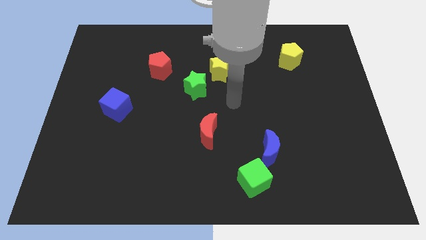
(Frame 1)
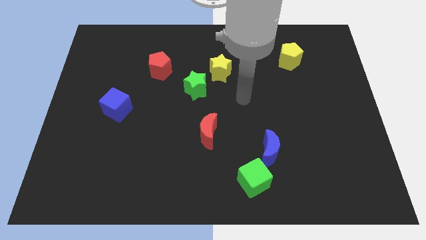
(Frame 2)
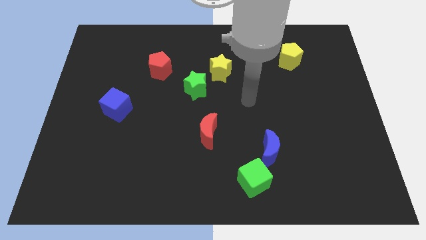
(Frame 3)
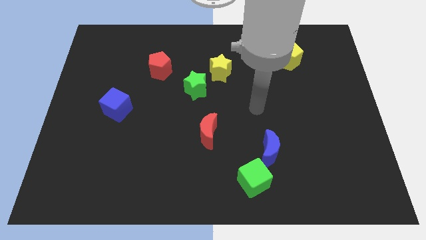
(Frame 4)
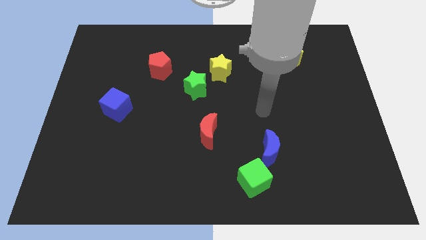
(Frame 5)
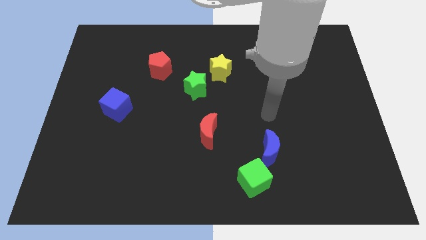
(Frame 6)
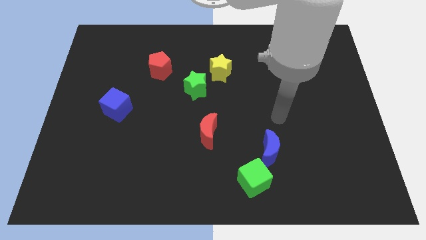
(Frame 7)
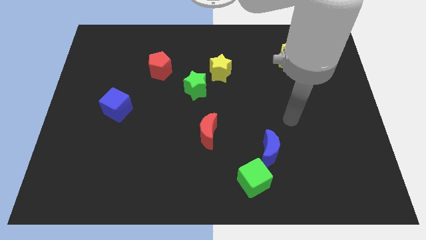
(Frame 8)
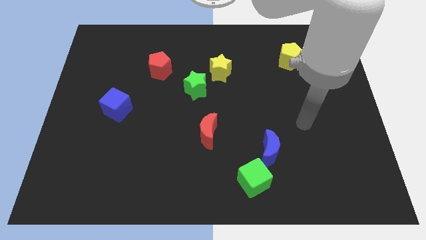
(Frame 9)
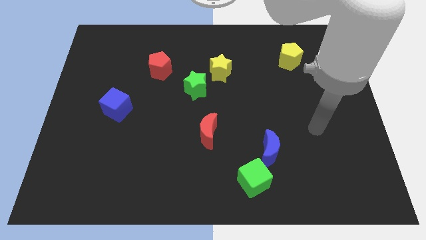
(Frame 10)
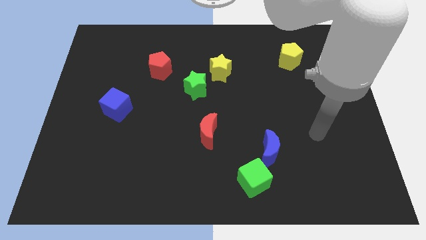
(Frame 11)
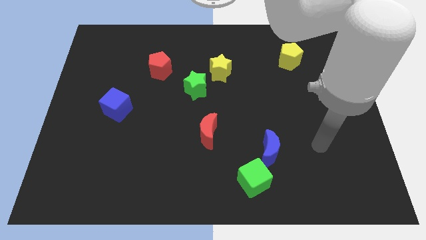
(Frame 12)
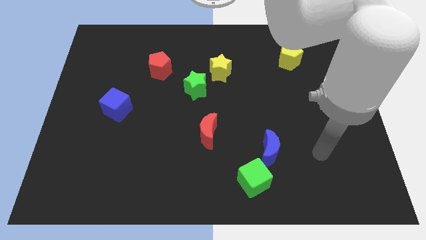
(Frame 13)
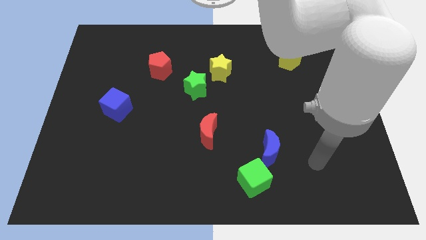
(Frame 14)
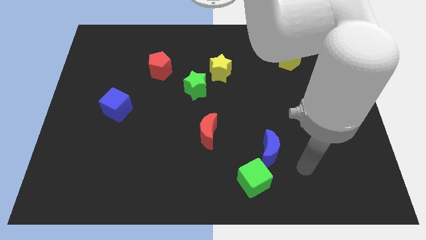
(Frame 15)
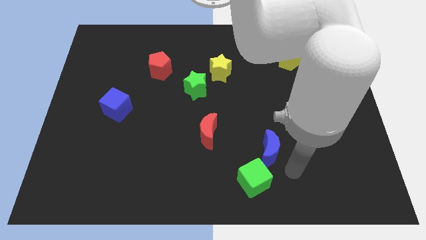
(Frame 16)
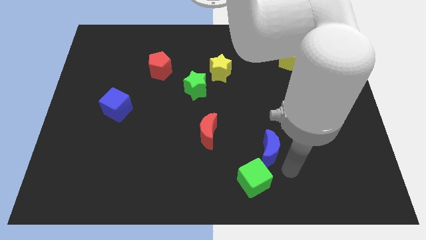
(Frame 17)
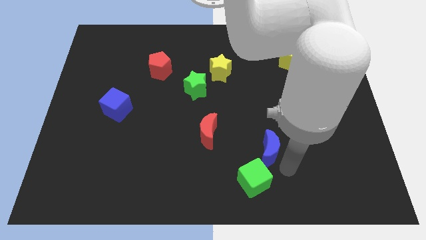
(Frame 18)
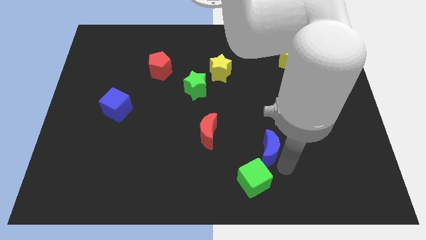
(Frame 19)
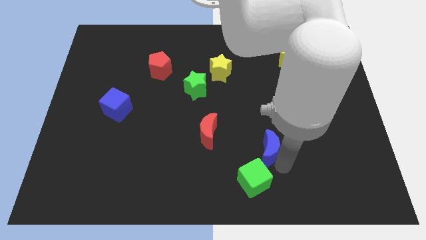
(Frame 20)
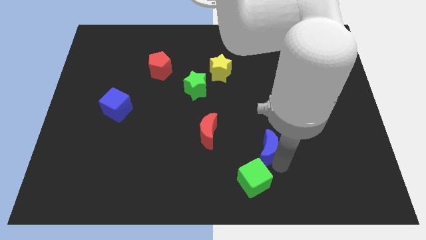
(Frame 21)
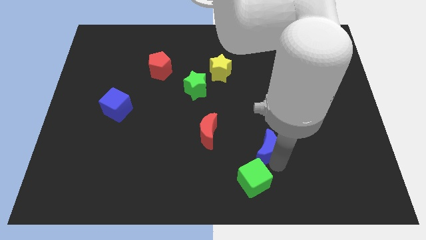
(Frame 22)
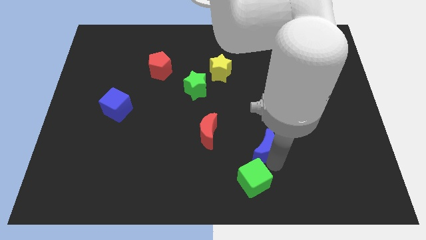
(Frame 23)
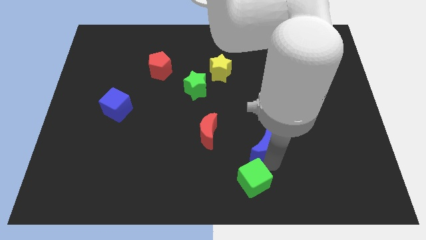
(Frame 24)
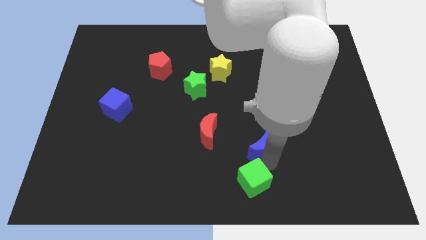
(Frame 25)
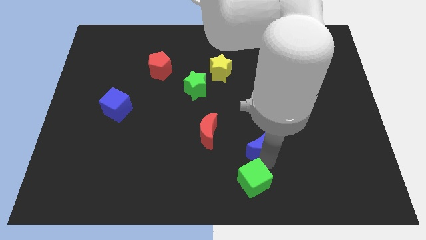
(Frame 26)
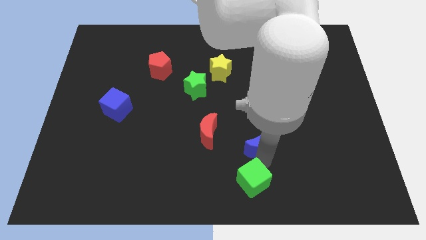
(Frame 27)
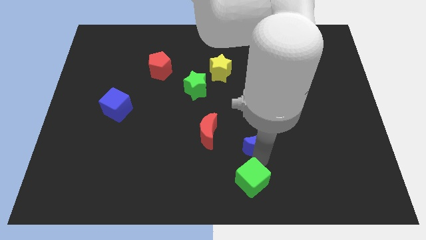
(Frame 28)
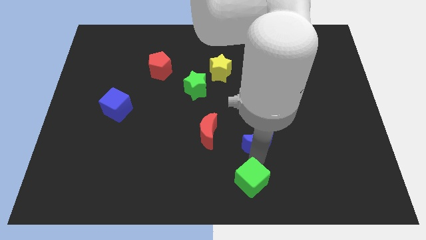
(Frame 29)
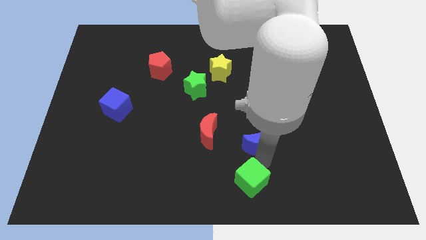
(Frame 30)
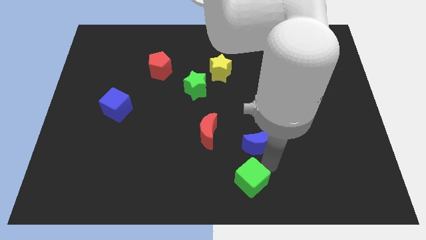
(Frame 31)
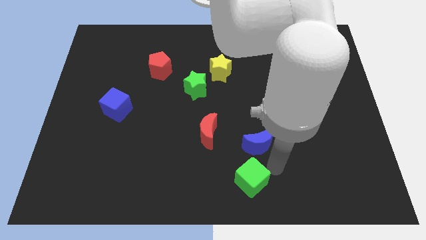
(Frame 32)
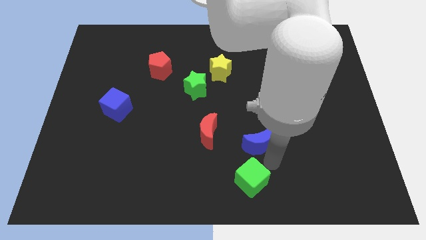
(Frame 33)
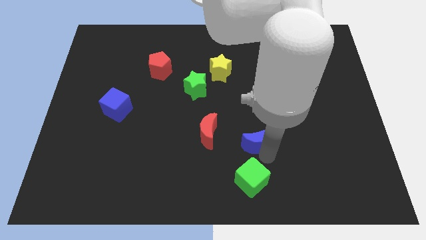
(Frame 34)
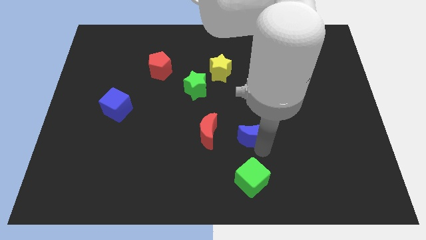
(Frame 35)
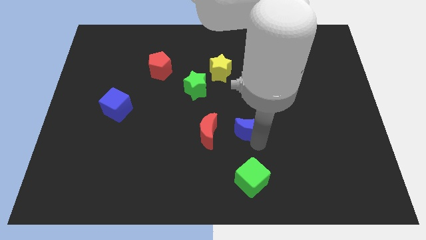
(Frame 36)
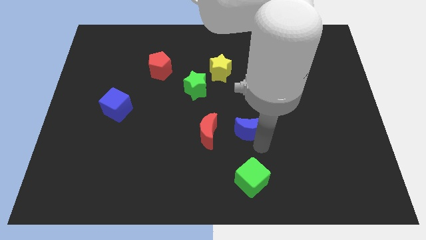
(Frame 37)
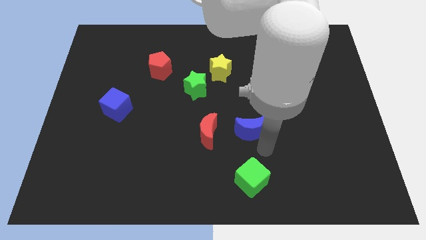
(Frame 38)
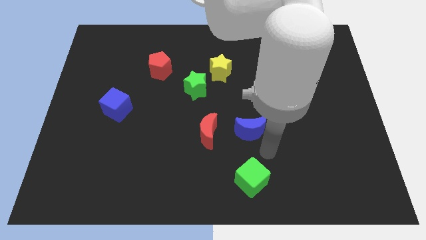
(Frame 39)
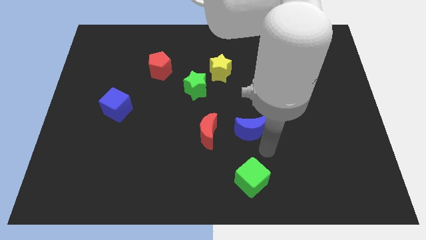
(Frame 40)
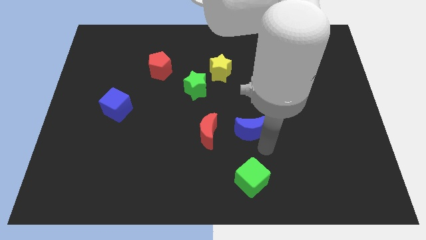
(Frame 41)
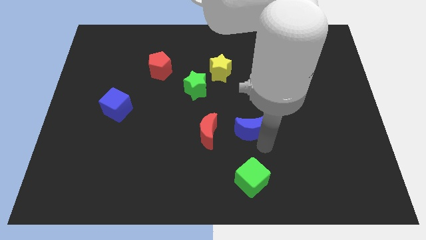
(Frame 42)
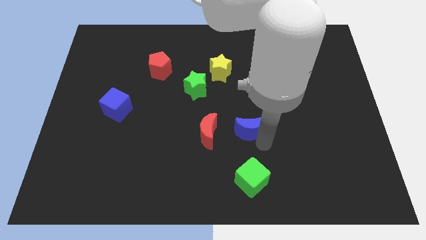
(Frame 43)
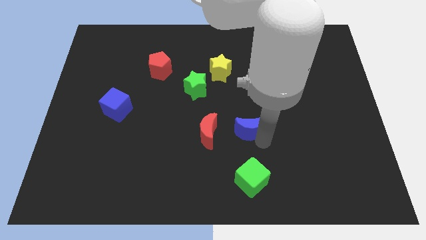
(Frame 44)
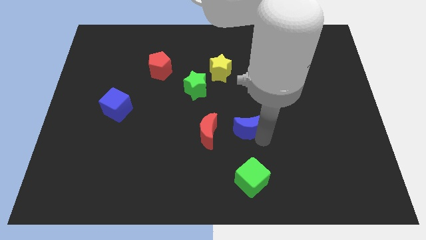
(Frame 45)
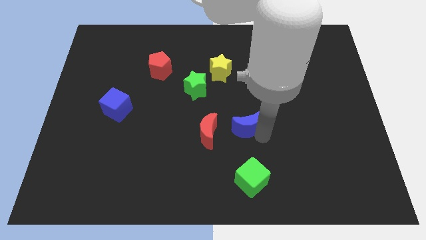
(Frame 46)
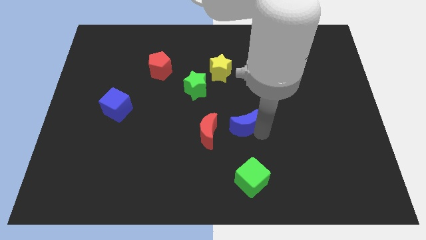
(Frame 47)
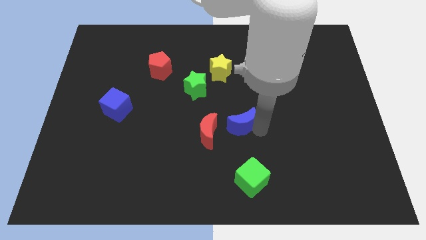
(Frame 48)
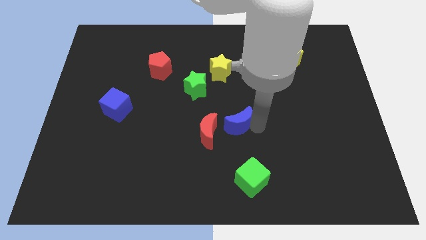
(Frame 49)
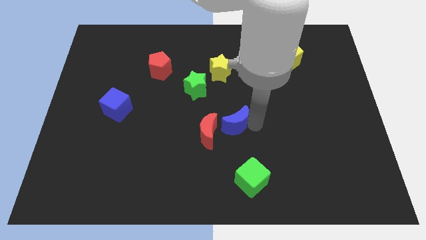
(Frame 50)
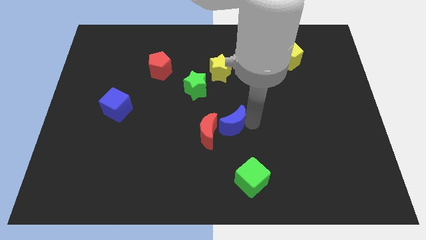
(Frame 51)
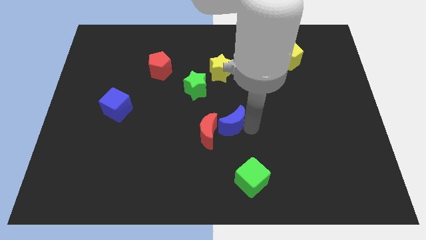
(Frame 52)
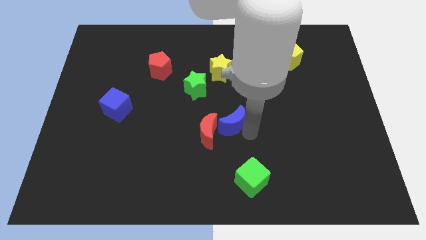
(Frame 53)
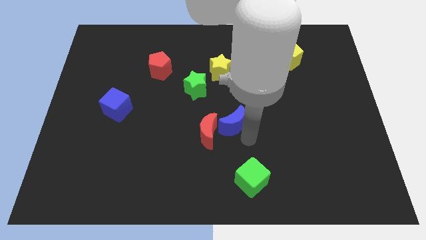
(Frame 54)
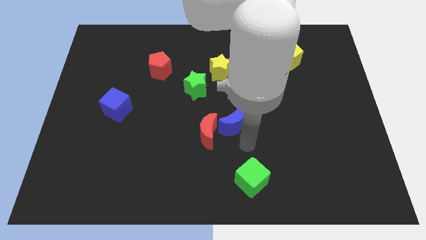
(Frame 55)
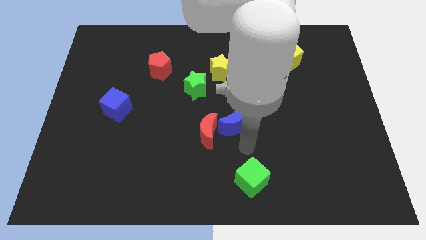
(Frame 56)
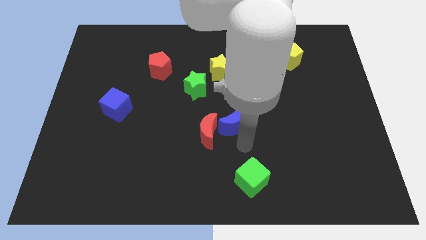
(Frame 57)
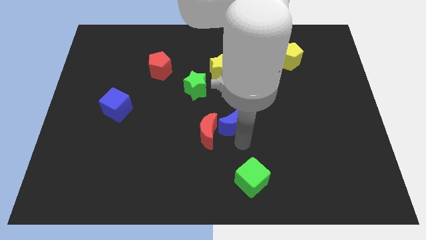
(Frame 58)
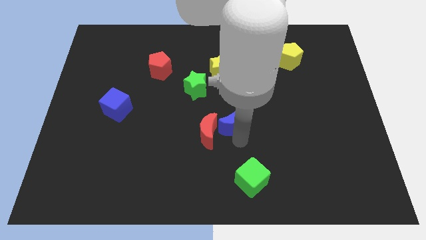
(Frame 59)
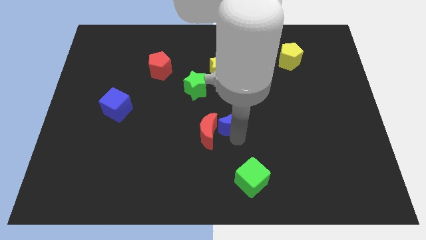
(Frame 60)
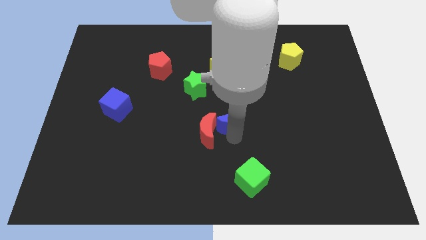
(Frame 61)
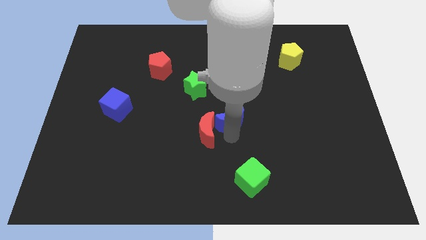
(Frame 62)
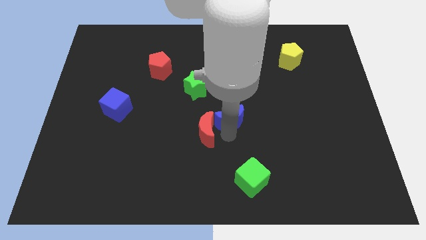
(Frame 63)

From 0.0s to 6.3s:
move the blue moon to the bottom of the yellow star

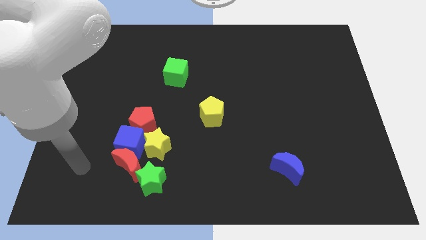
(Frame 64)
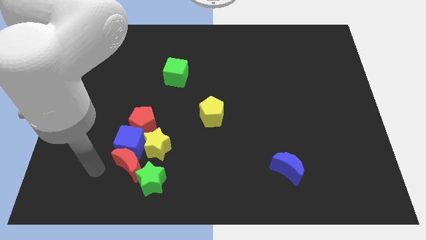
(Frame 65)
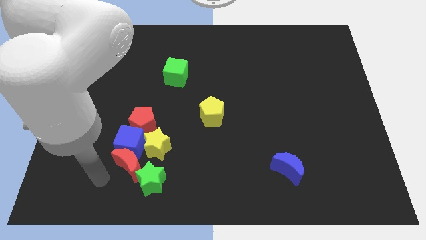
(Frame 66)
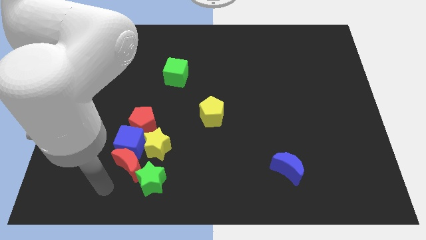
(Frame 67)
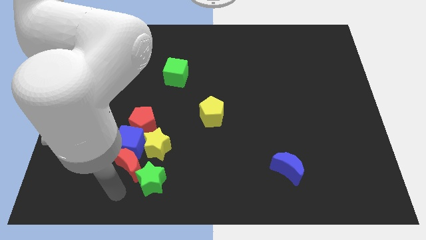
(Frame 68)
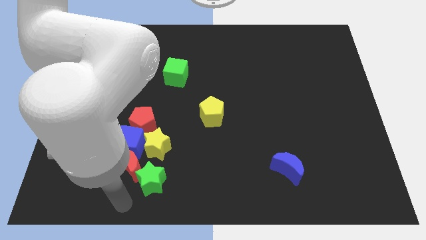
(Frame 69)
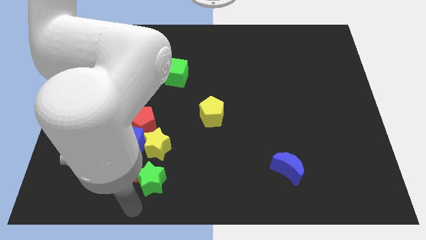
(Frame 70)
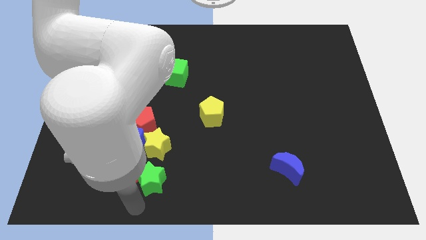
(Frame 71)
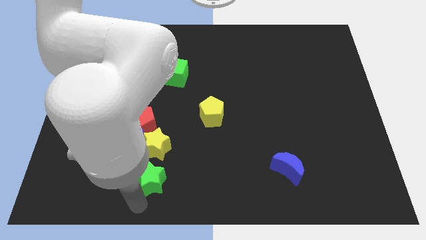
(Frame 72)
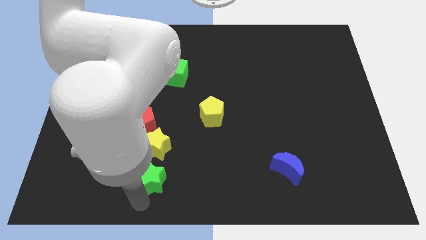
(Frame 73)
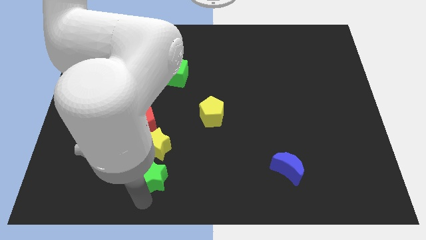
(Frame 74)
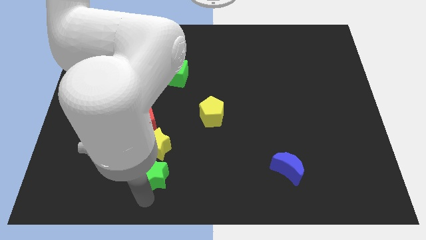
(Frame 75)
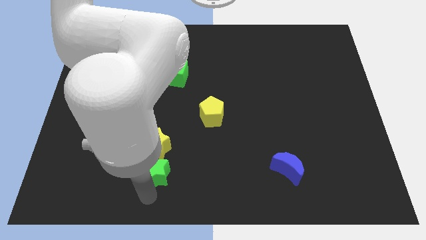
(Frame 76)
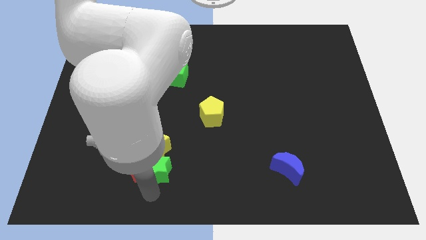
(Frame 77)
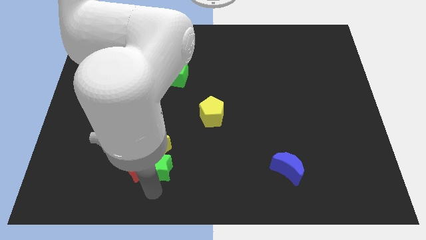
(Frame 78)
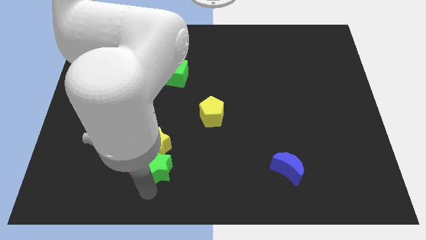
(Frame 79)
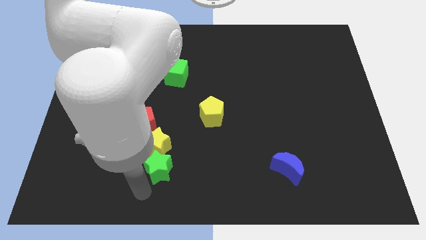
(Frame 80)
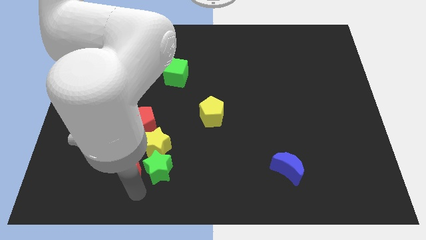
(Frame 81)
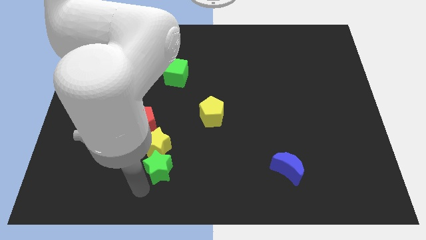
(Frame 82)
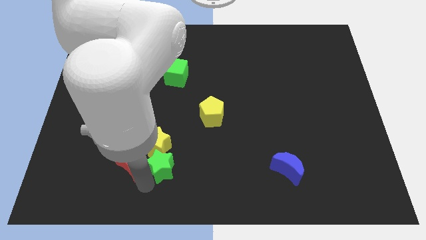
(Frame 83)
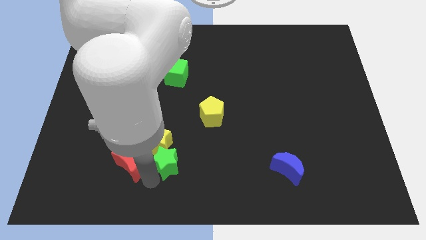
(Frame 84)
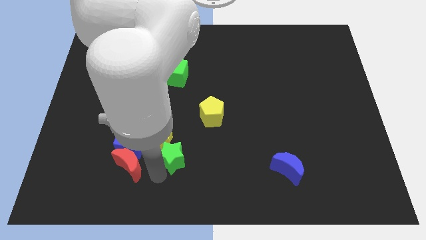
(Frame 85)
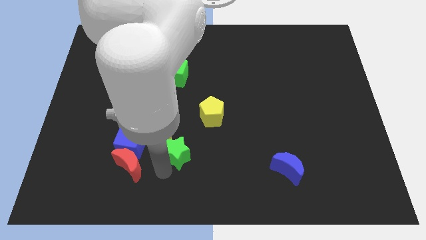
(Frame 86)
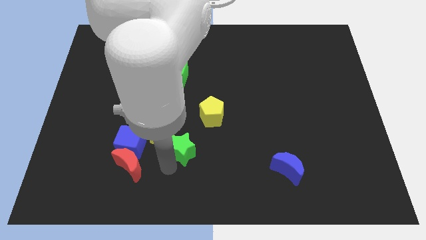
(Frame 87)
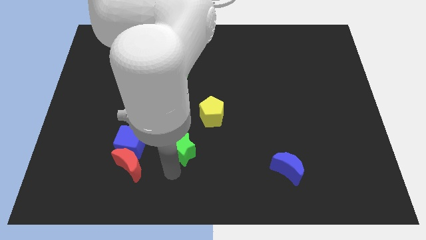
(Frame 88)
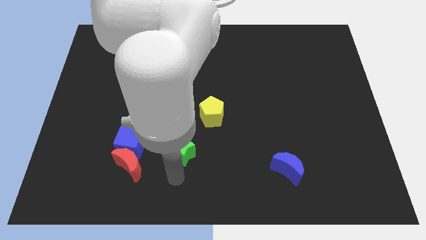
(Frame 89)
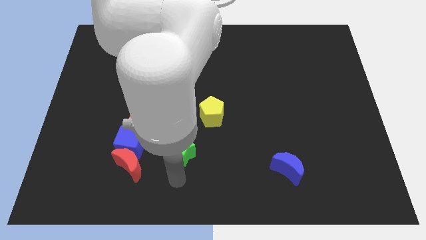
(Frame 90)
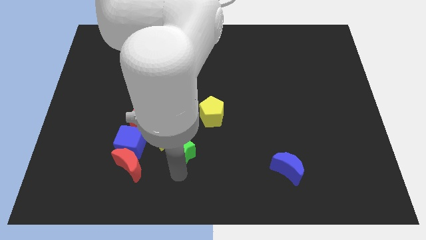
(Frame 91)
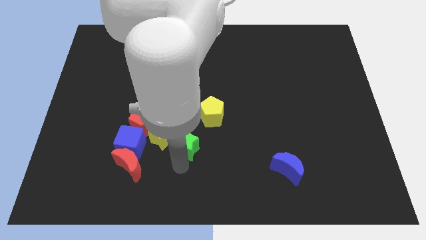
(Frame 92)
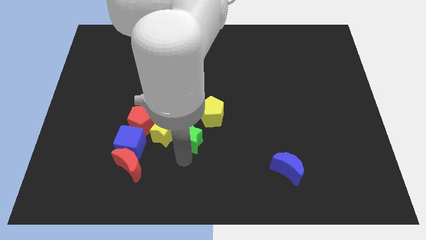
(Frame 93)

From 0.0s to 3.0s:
move the green star to the right of the red pentagon
